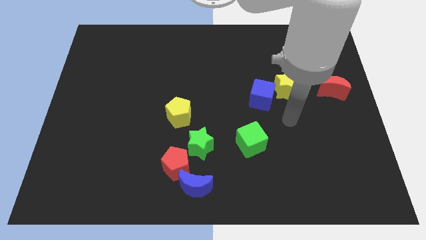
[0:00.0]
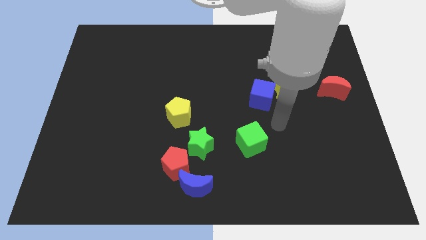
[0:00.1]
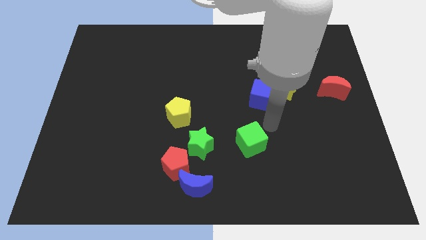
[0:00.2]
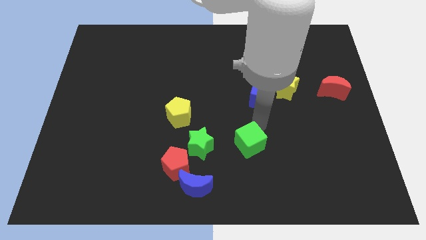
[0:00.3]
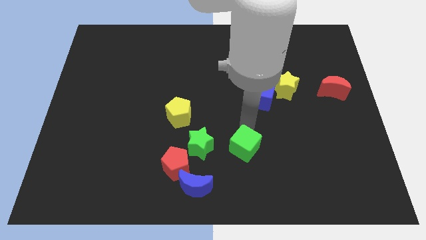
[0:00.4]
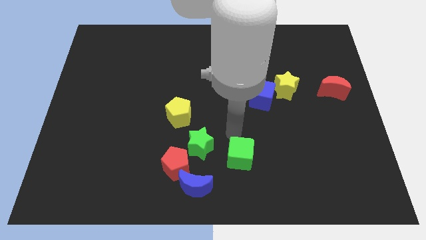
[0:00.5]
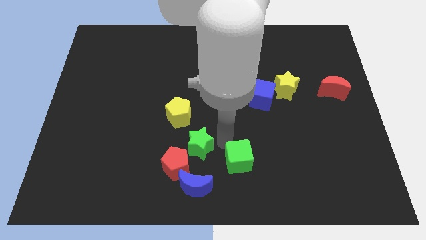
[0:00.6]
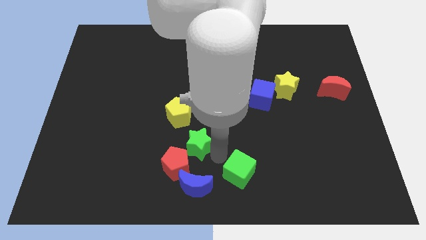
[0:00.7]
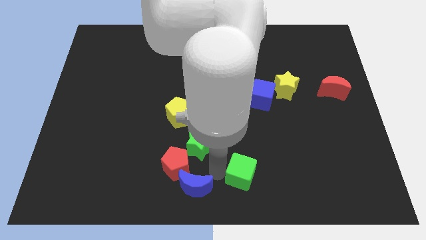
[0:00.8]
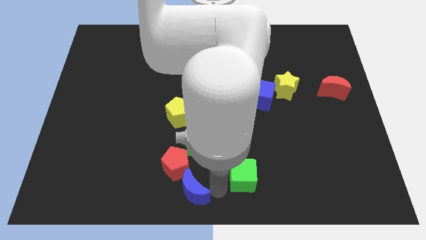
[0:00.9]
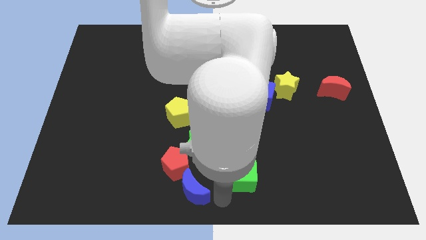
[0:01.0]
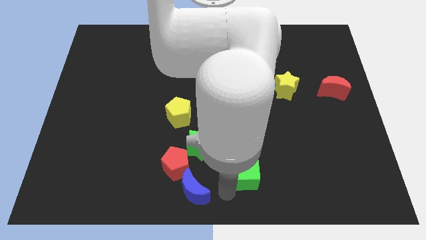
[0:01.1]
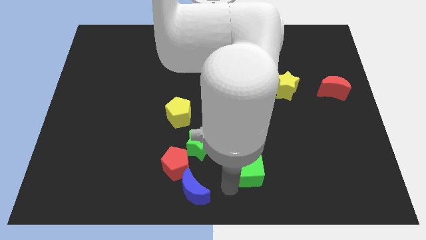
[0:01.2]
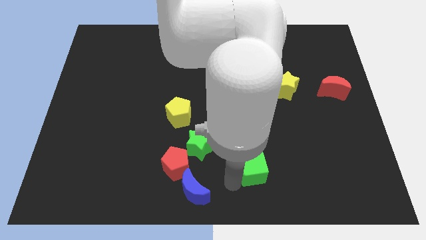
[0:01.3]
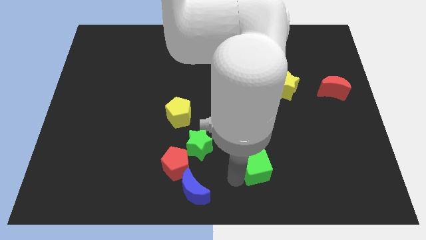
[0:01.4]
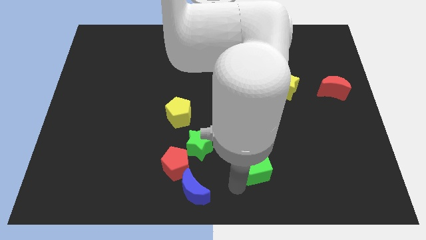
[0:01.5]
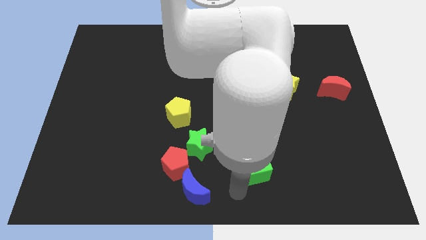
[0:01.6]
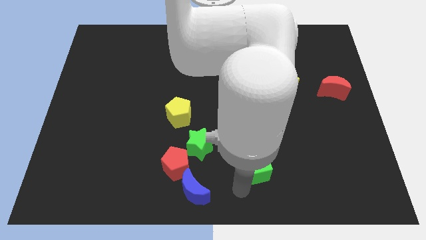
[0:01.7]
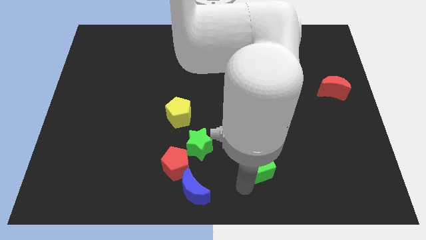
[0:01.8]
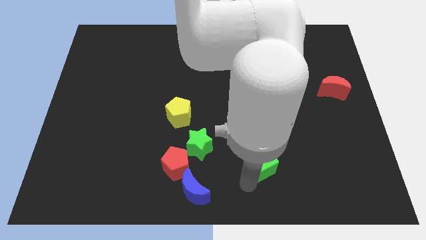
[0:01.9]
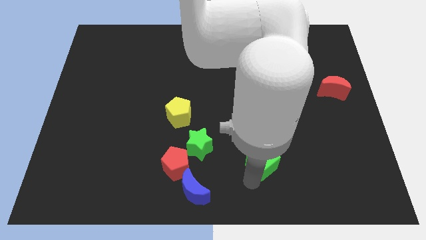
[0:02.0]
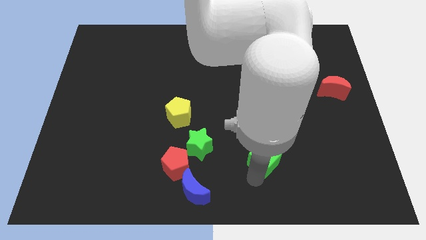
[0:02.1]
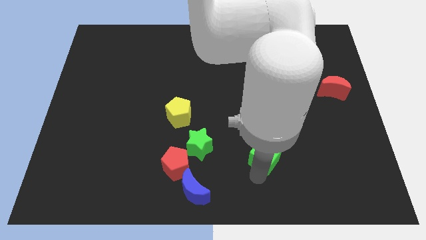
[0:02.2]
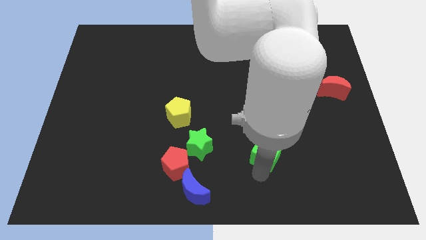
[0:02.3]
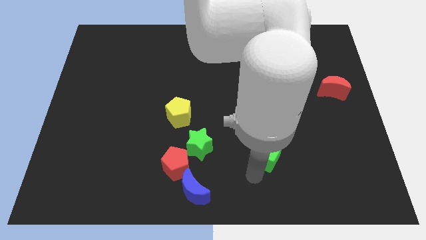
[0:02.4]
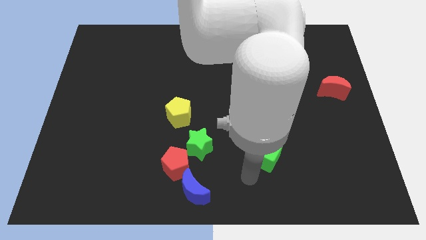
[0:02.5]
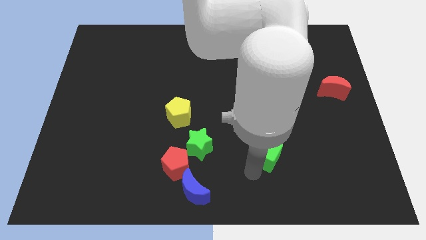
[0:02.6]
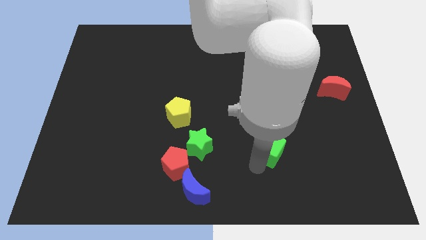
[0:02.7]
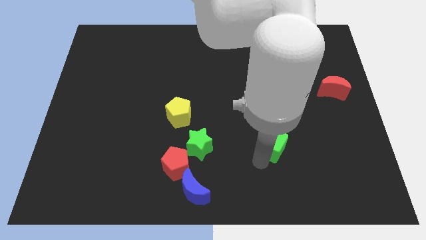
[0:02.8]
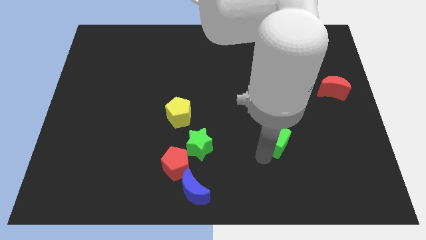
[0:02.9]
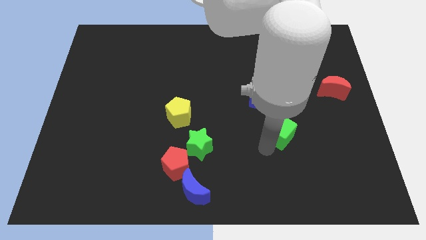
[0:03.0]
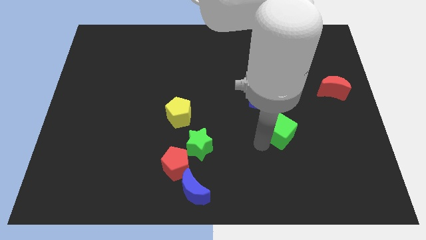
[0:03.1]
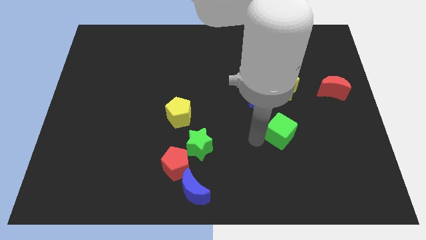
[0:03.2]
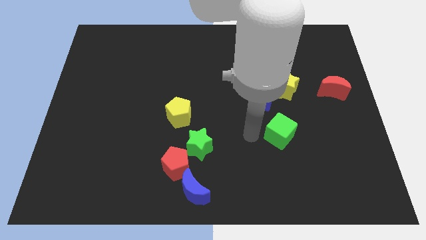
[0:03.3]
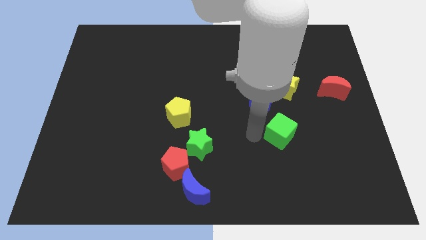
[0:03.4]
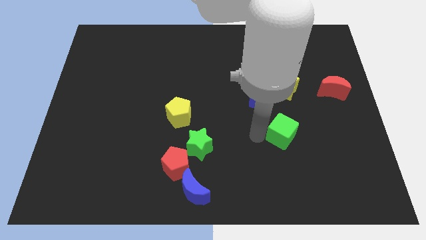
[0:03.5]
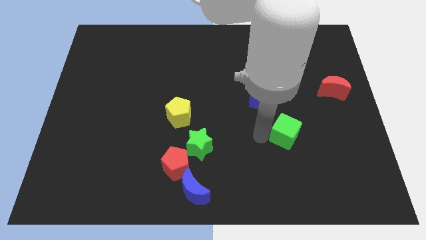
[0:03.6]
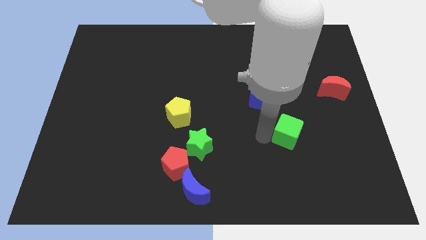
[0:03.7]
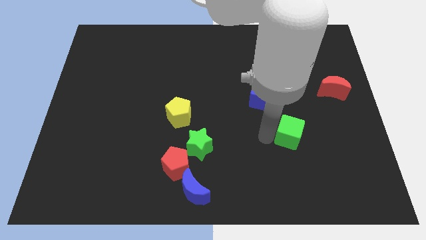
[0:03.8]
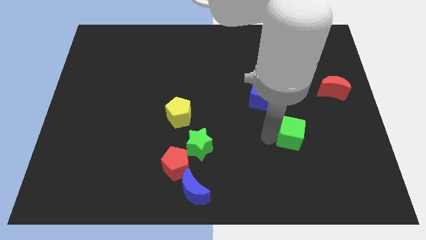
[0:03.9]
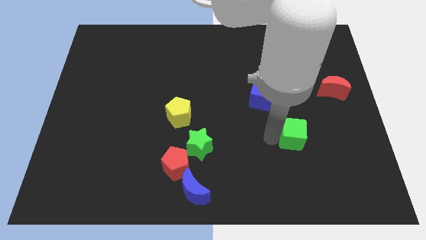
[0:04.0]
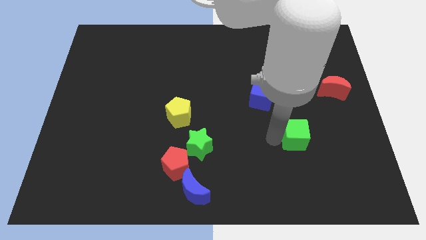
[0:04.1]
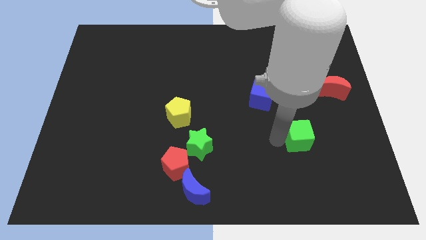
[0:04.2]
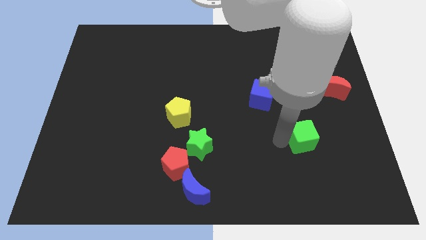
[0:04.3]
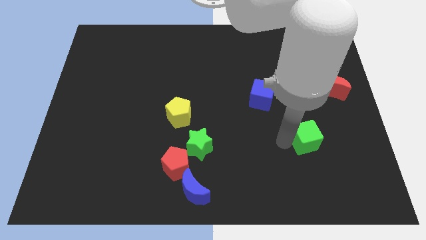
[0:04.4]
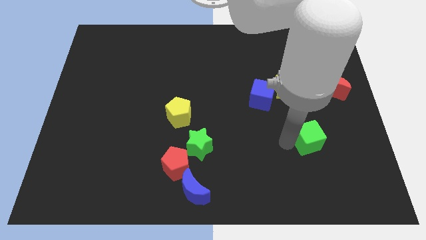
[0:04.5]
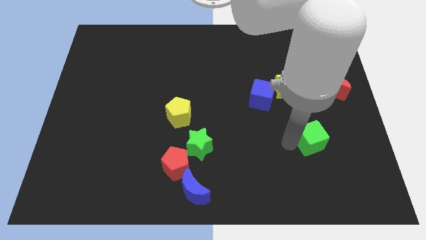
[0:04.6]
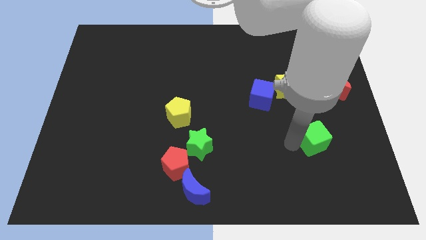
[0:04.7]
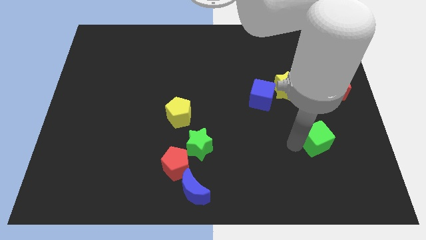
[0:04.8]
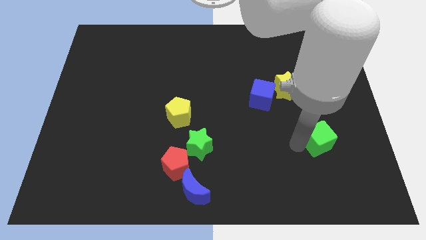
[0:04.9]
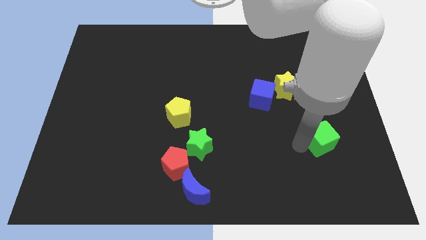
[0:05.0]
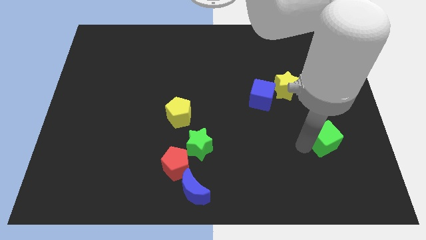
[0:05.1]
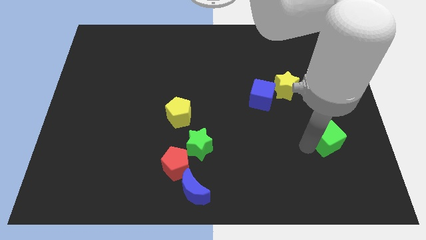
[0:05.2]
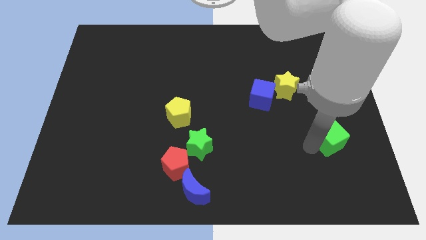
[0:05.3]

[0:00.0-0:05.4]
move the green cube below the red moon

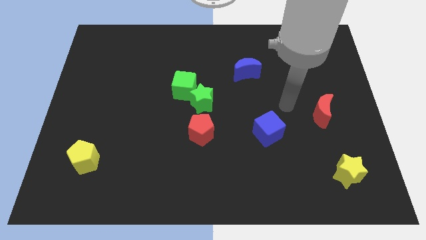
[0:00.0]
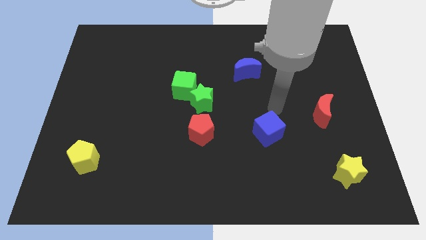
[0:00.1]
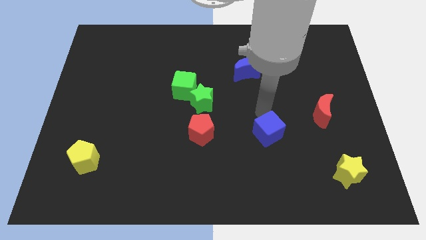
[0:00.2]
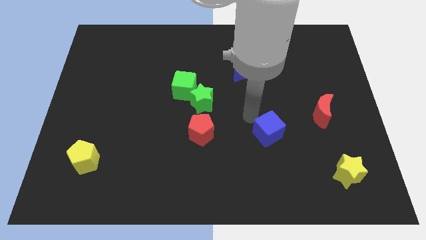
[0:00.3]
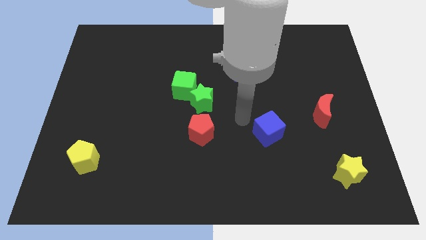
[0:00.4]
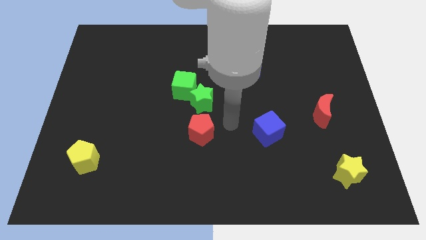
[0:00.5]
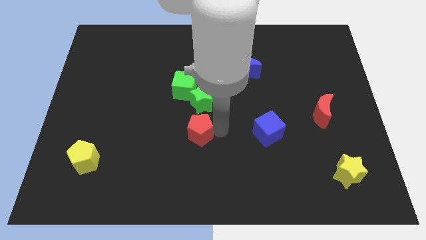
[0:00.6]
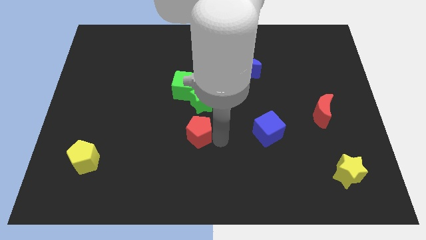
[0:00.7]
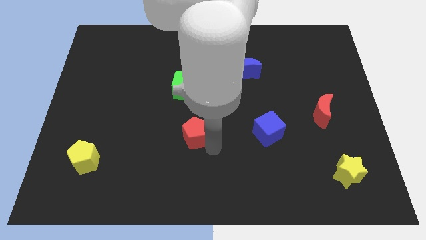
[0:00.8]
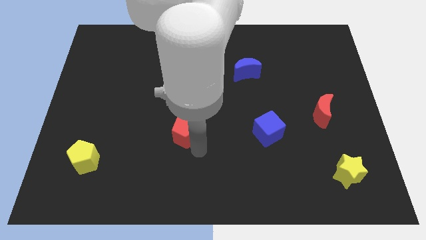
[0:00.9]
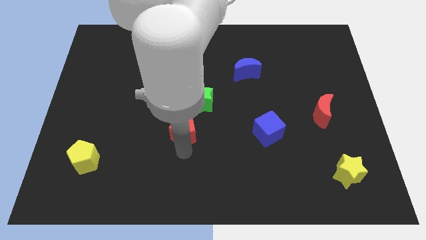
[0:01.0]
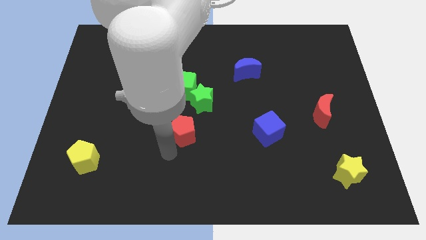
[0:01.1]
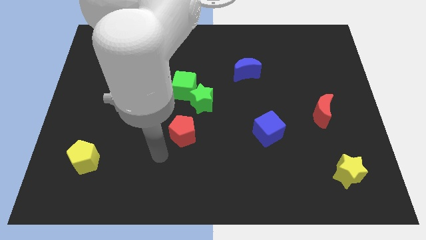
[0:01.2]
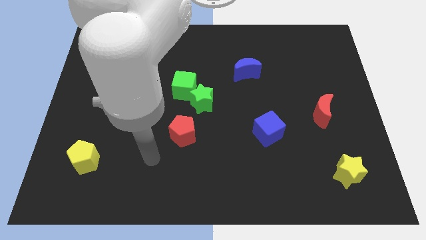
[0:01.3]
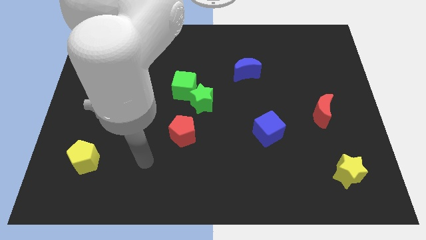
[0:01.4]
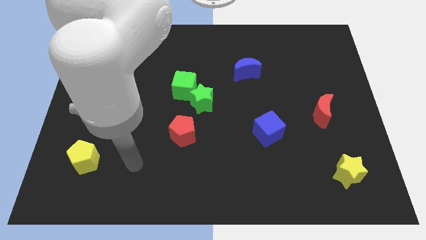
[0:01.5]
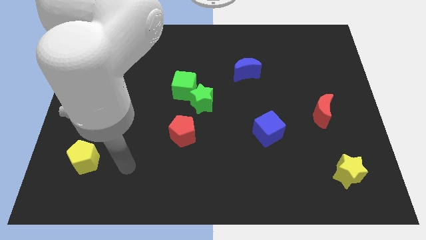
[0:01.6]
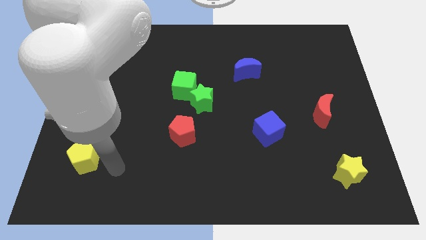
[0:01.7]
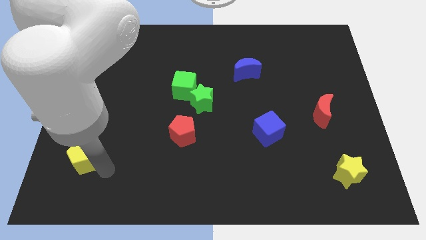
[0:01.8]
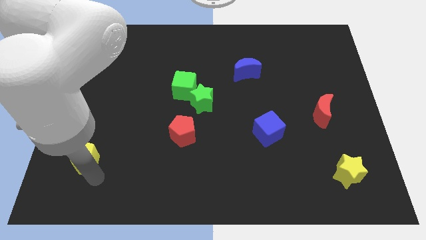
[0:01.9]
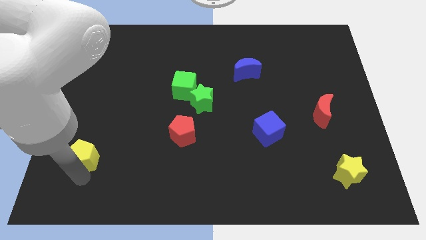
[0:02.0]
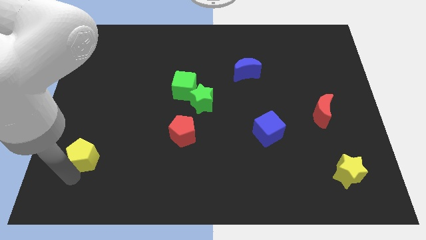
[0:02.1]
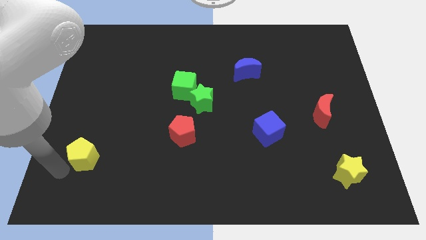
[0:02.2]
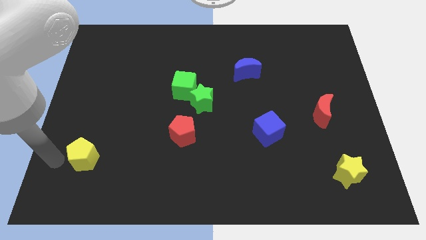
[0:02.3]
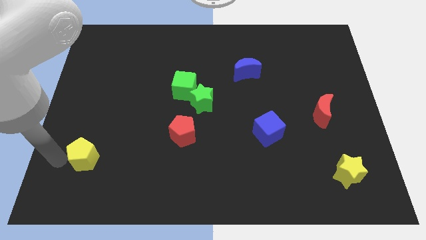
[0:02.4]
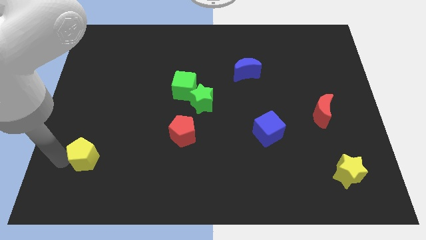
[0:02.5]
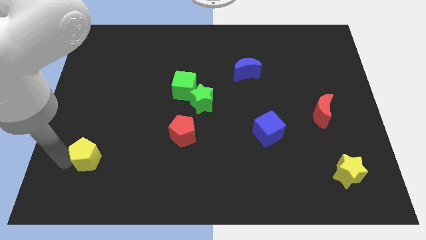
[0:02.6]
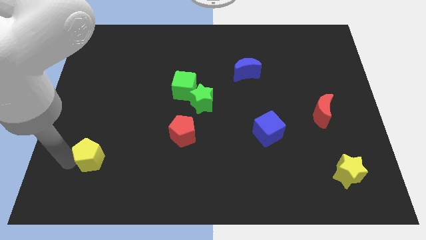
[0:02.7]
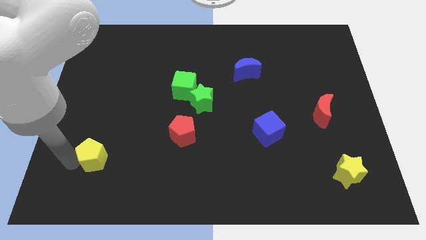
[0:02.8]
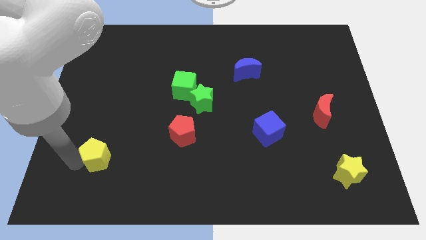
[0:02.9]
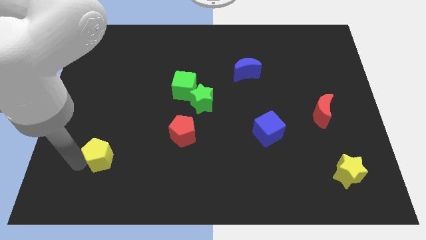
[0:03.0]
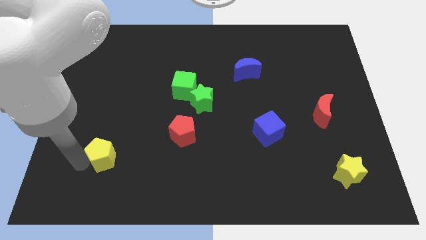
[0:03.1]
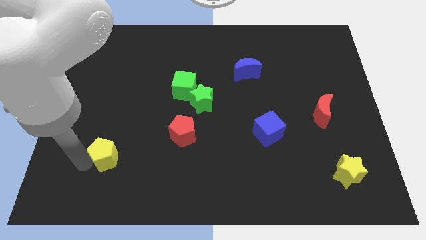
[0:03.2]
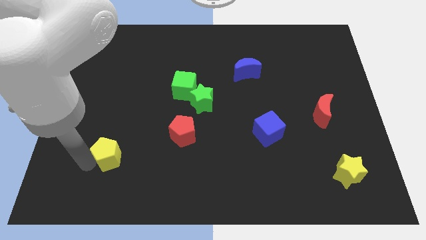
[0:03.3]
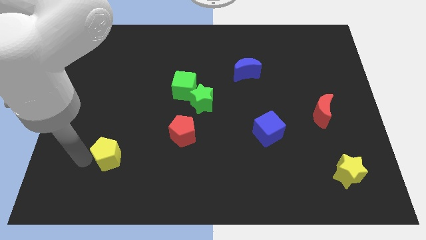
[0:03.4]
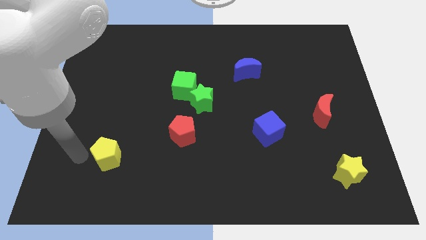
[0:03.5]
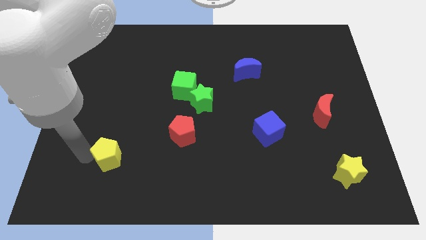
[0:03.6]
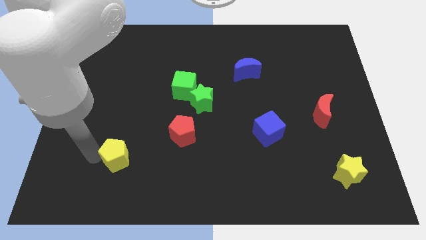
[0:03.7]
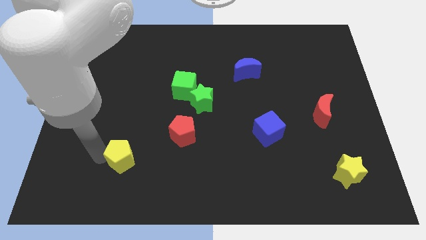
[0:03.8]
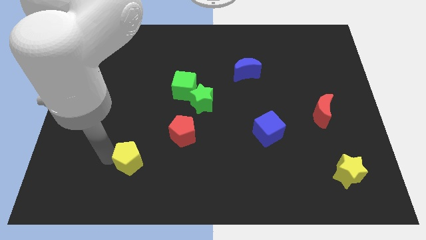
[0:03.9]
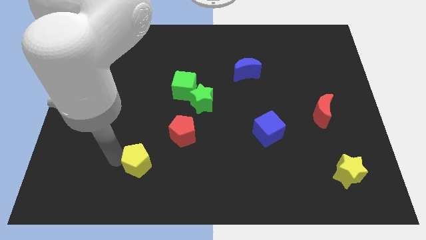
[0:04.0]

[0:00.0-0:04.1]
slide the yellow pentagon to the bottom left side of the red pentagon
